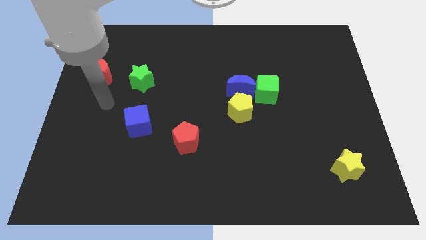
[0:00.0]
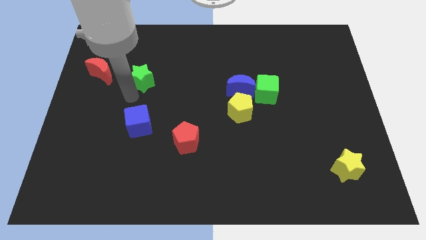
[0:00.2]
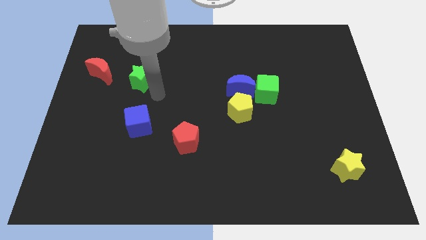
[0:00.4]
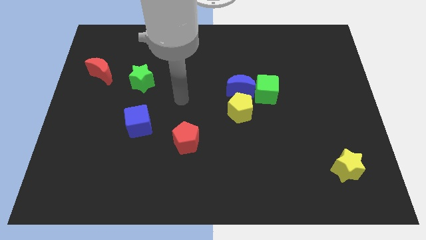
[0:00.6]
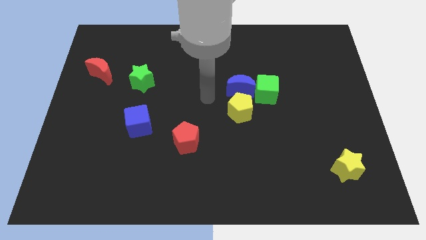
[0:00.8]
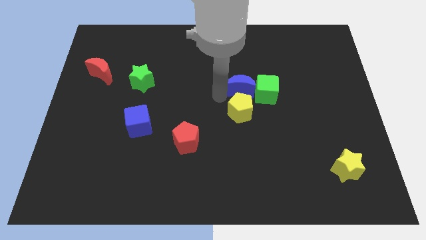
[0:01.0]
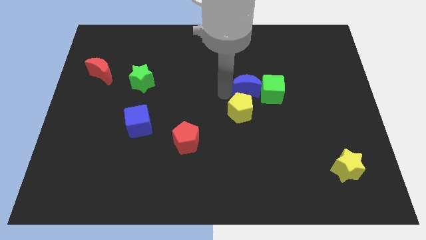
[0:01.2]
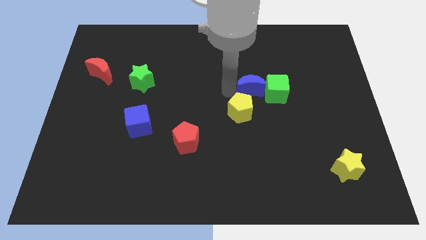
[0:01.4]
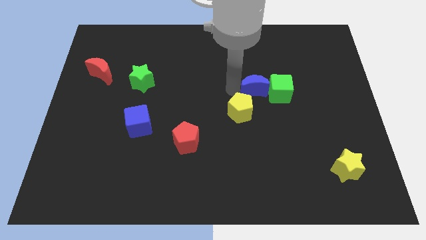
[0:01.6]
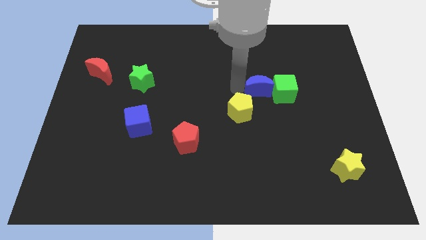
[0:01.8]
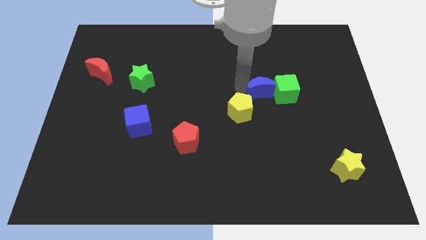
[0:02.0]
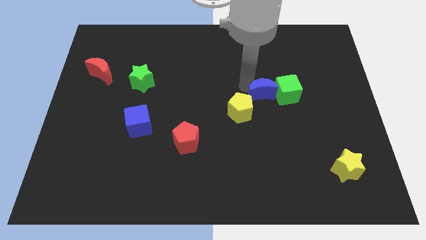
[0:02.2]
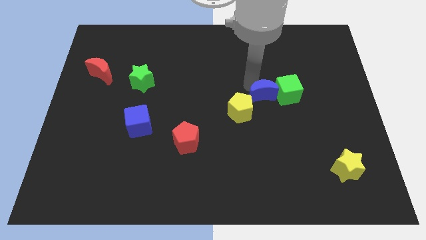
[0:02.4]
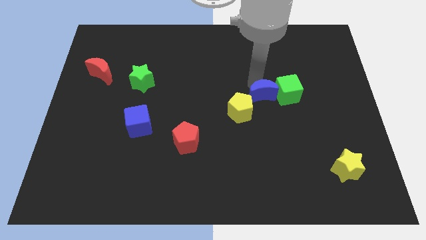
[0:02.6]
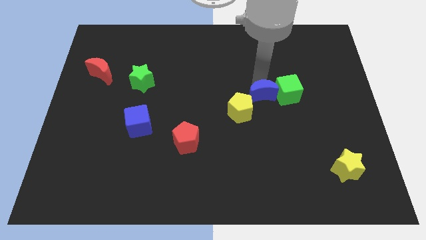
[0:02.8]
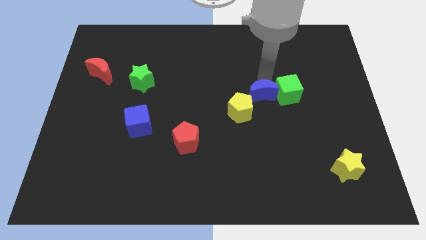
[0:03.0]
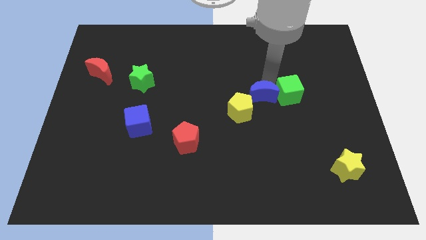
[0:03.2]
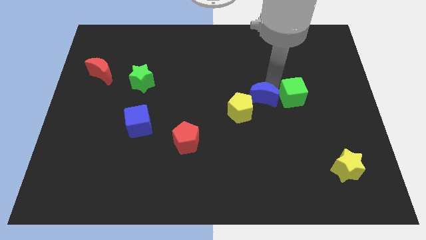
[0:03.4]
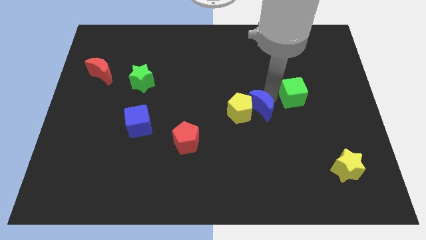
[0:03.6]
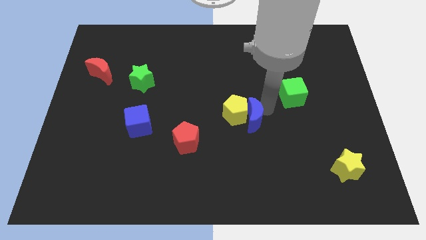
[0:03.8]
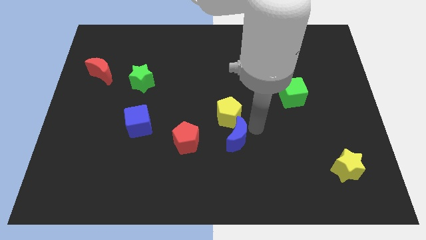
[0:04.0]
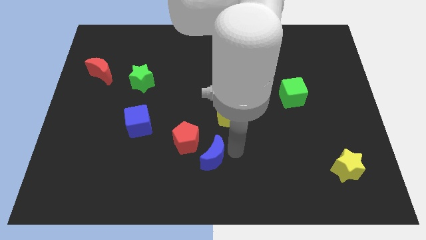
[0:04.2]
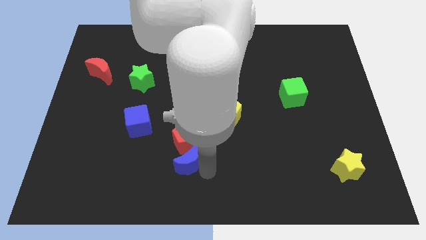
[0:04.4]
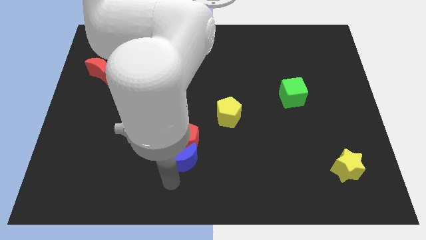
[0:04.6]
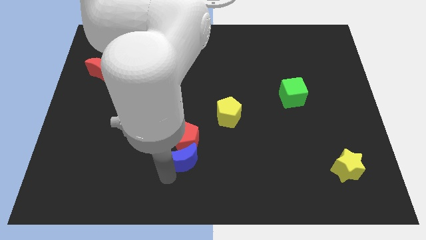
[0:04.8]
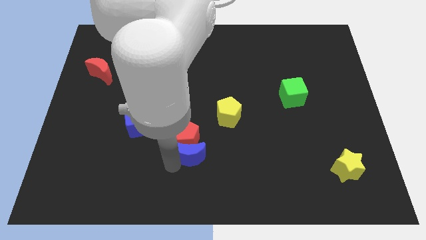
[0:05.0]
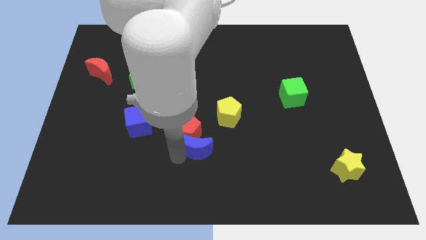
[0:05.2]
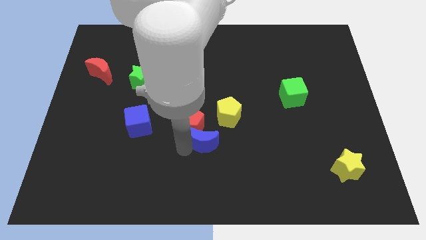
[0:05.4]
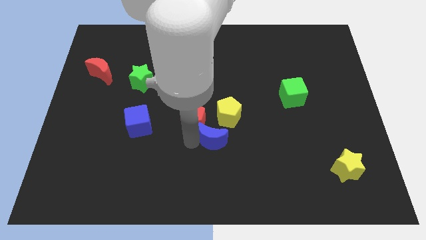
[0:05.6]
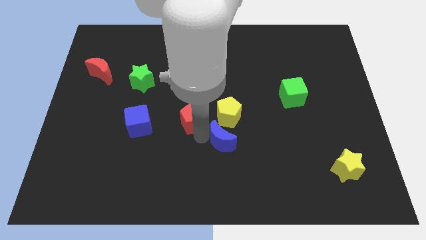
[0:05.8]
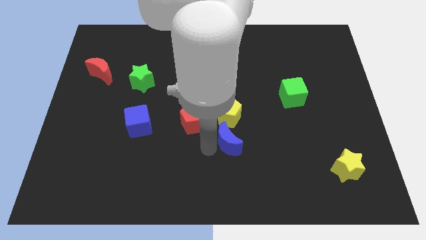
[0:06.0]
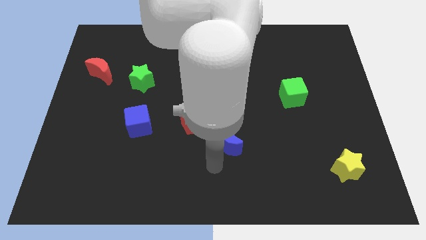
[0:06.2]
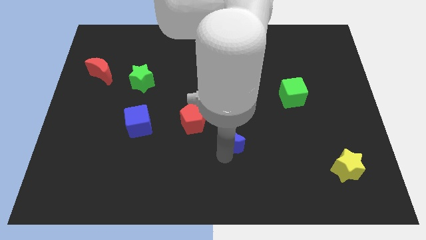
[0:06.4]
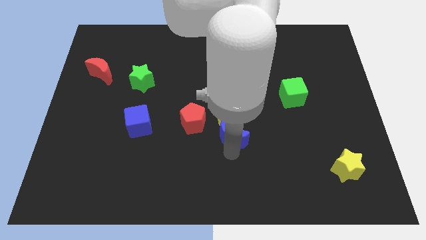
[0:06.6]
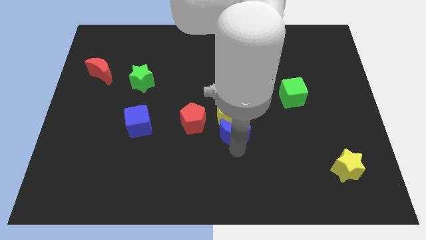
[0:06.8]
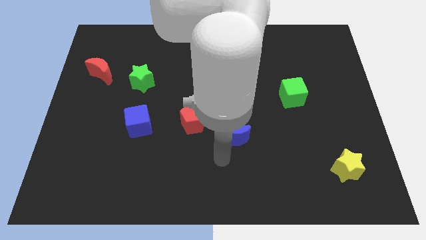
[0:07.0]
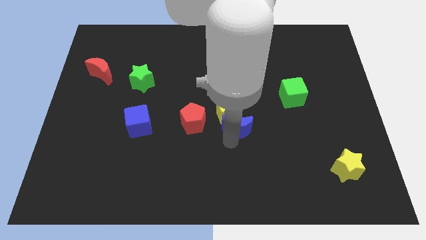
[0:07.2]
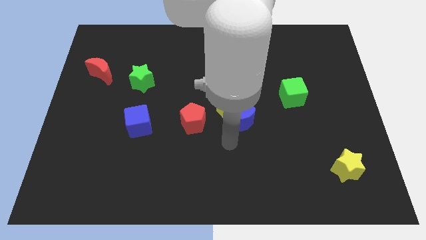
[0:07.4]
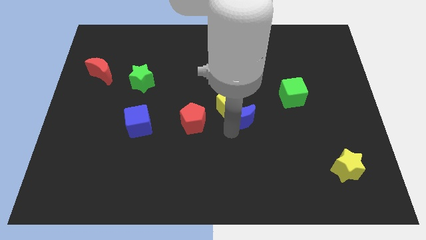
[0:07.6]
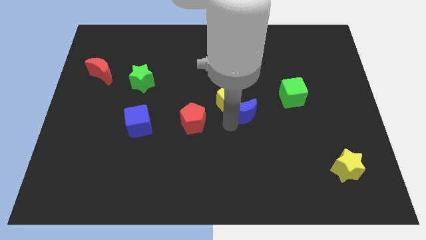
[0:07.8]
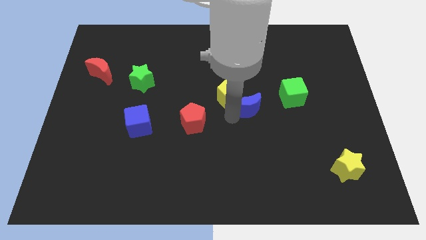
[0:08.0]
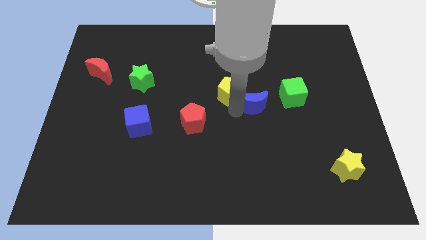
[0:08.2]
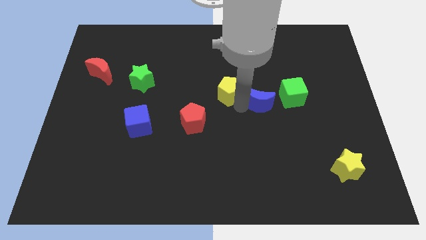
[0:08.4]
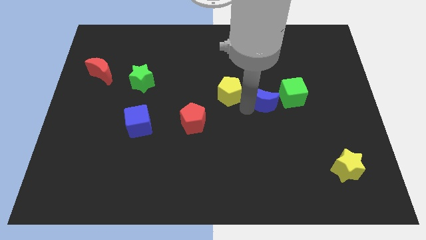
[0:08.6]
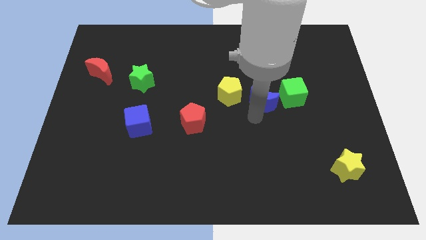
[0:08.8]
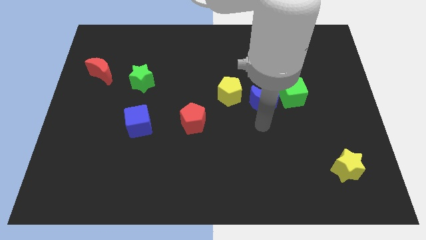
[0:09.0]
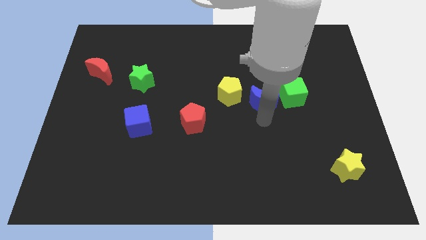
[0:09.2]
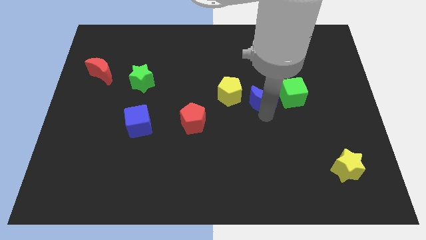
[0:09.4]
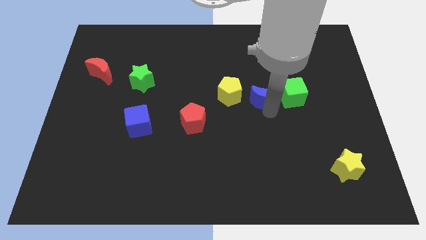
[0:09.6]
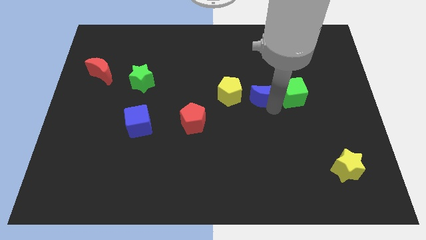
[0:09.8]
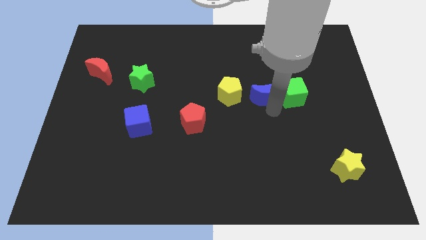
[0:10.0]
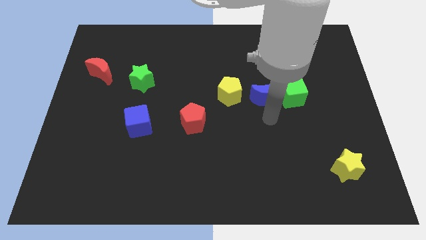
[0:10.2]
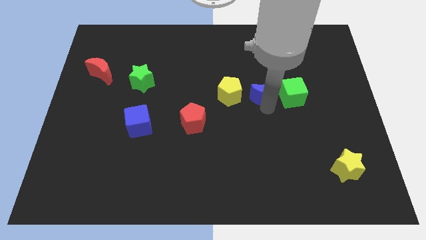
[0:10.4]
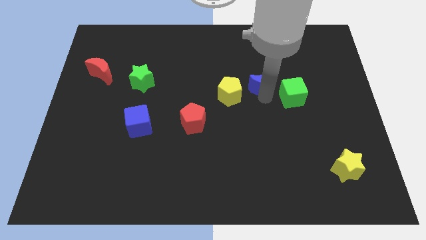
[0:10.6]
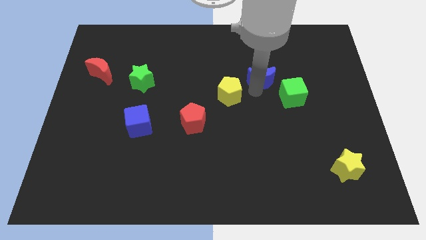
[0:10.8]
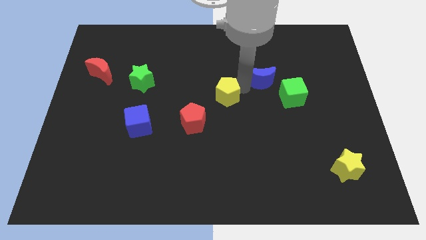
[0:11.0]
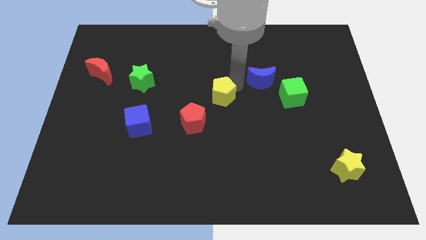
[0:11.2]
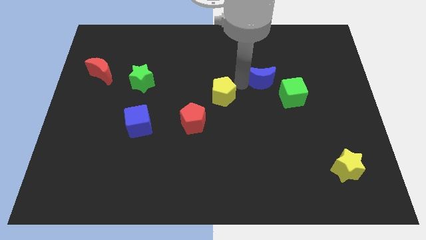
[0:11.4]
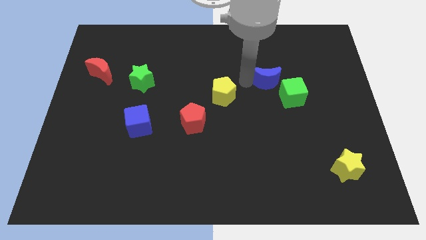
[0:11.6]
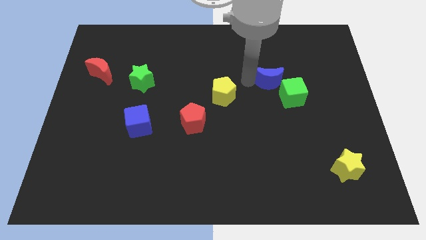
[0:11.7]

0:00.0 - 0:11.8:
slide the blue moon right slightly

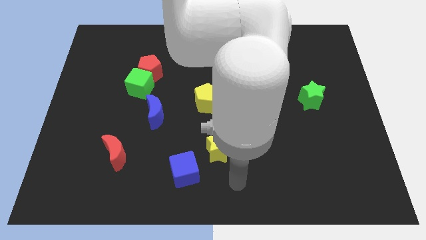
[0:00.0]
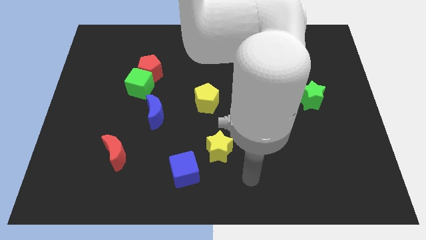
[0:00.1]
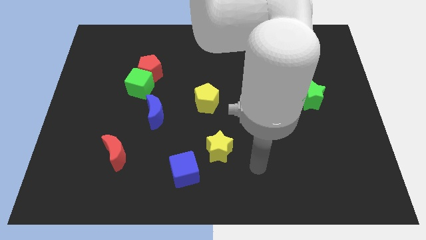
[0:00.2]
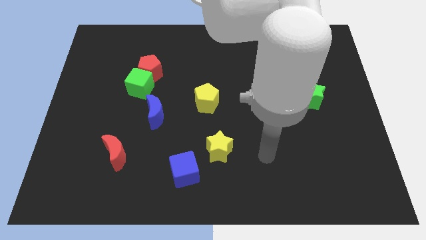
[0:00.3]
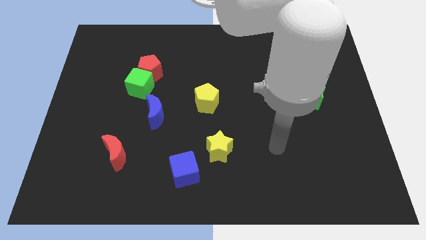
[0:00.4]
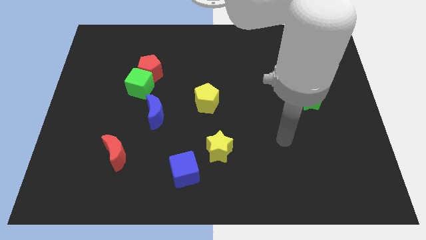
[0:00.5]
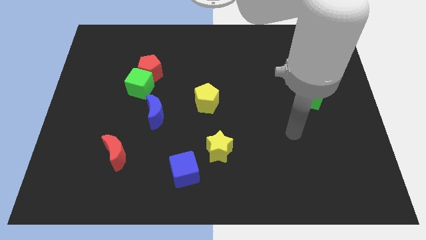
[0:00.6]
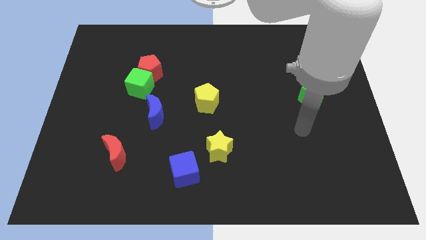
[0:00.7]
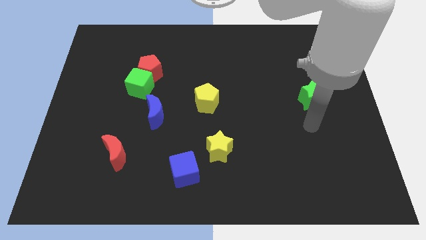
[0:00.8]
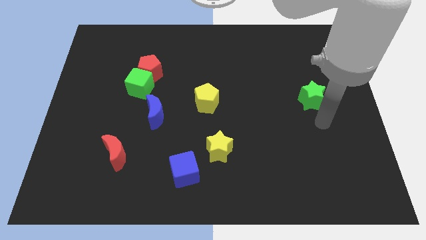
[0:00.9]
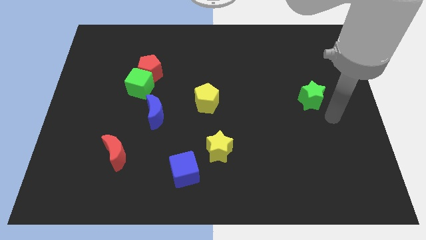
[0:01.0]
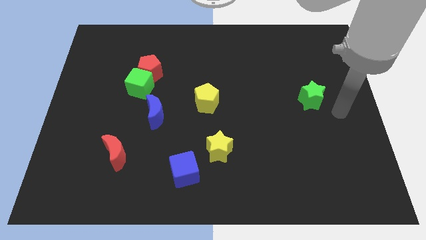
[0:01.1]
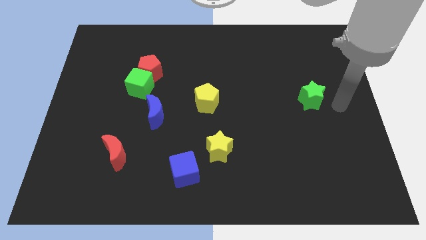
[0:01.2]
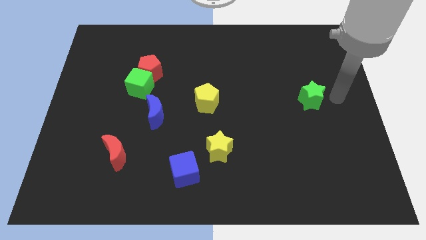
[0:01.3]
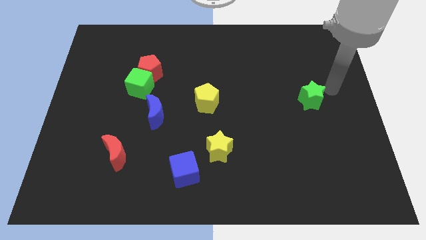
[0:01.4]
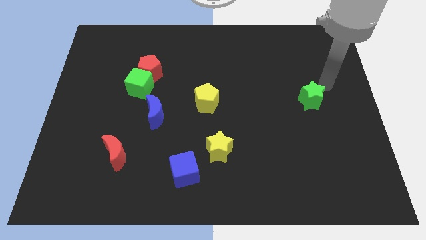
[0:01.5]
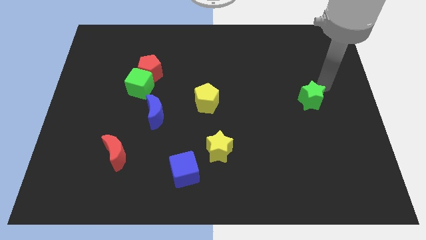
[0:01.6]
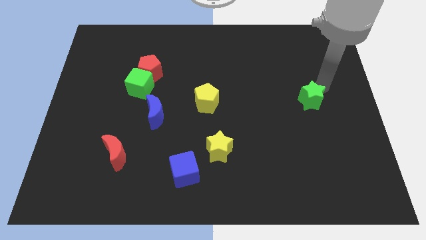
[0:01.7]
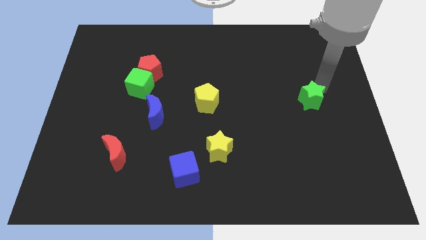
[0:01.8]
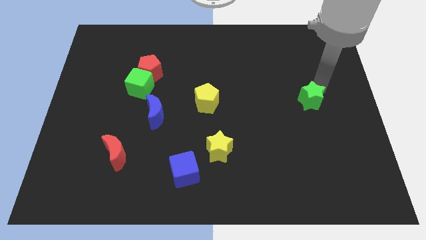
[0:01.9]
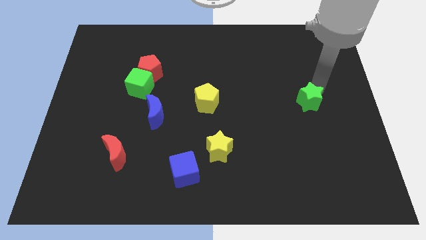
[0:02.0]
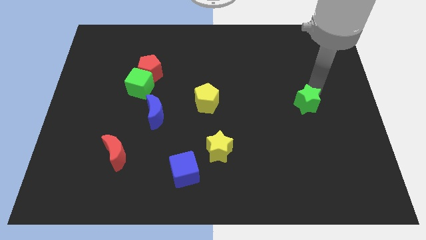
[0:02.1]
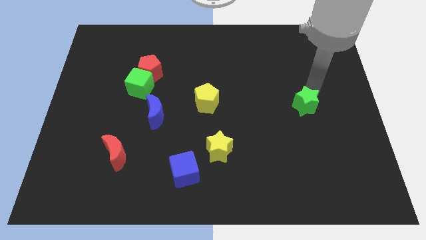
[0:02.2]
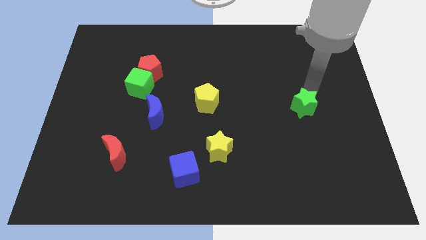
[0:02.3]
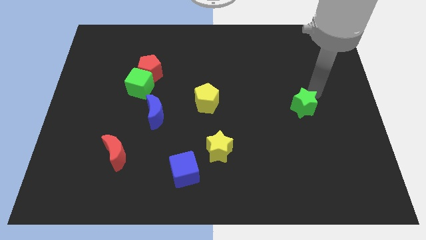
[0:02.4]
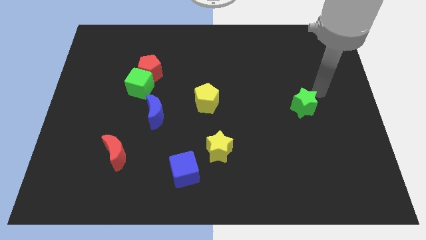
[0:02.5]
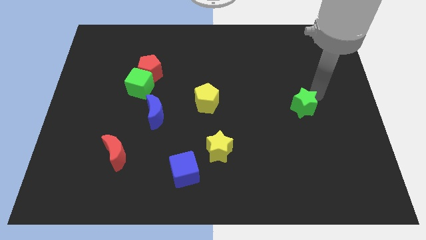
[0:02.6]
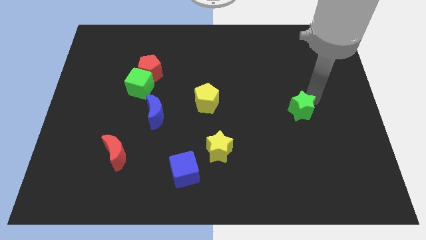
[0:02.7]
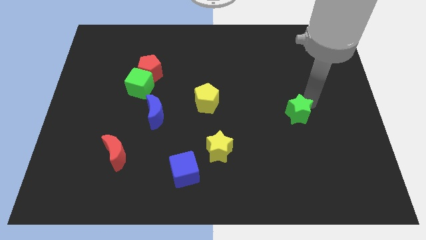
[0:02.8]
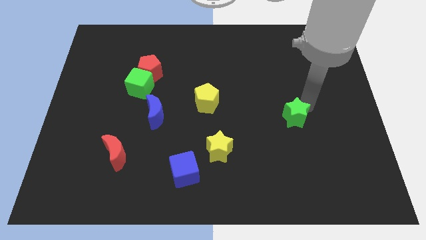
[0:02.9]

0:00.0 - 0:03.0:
move the green star diagonally downwards and left a bit
